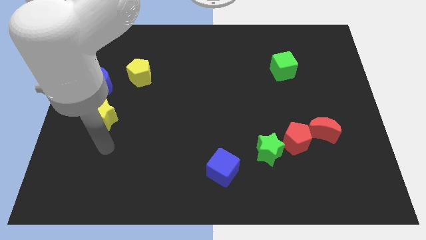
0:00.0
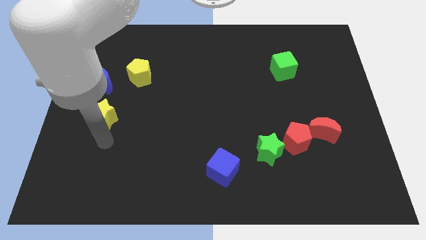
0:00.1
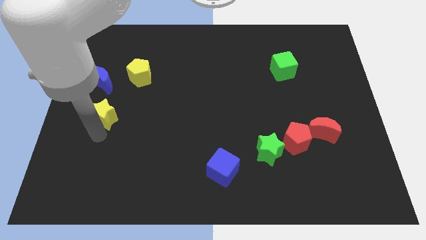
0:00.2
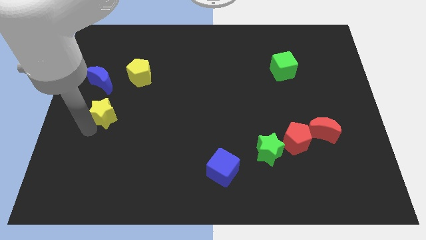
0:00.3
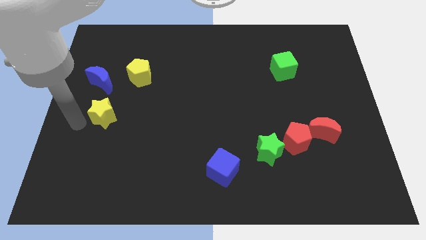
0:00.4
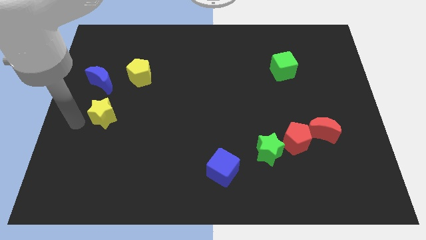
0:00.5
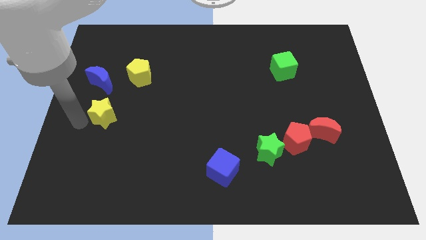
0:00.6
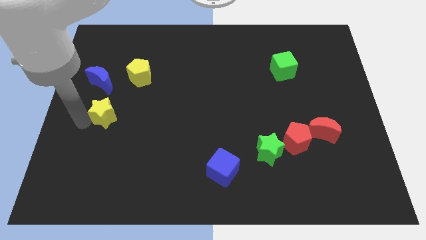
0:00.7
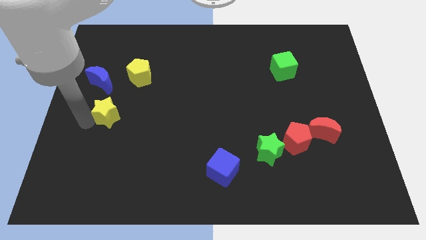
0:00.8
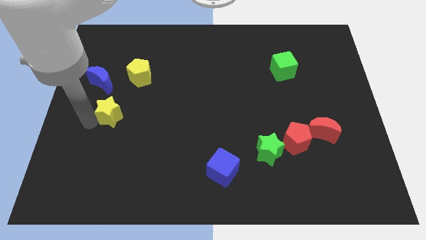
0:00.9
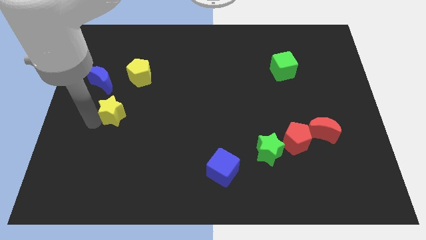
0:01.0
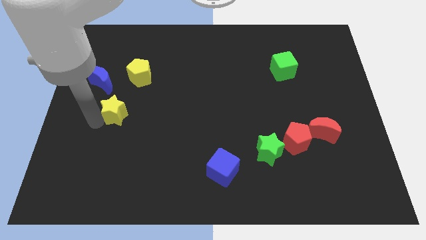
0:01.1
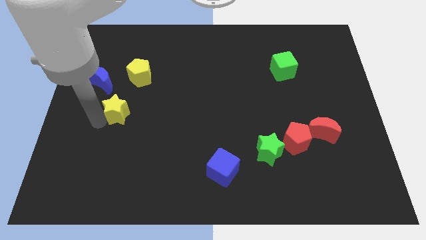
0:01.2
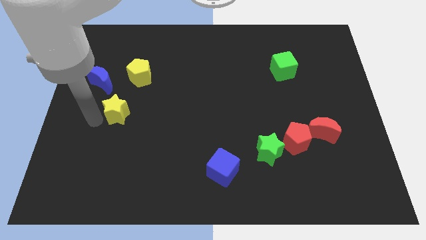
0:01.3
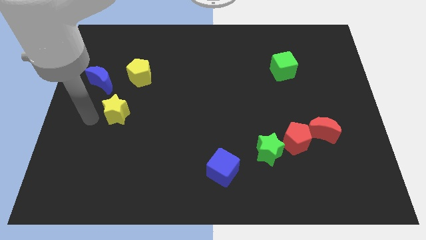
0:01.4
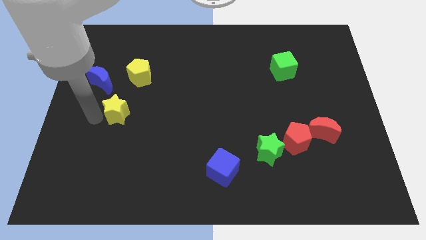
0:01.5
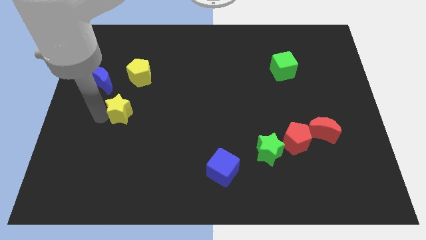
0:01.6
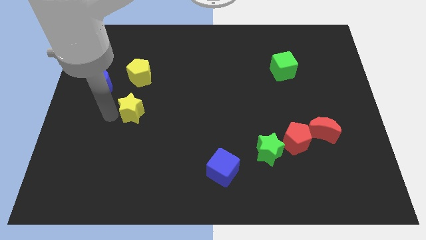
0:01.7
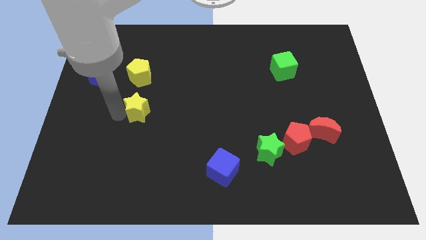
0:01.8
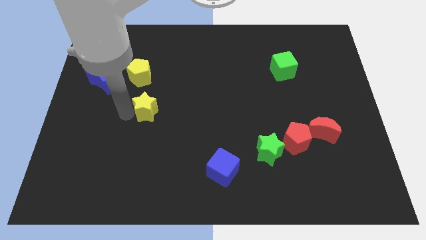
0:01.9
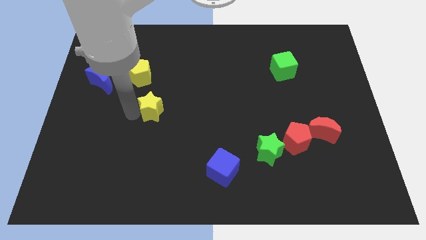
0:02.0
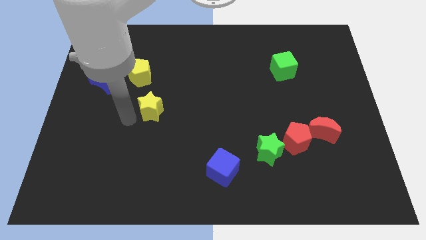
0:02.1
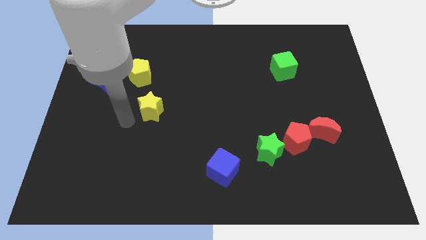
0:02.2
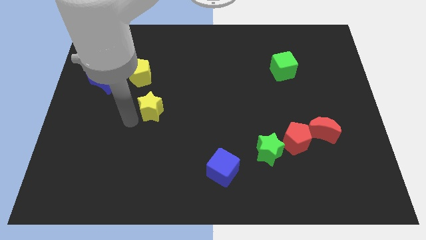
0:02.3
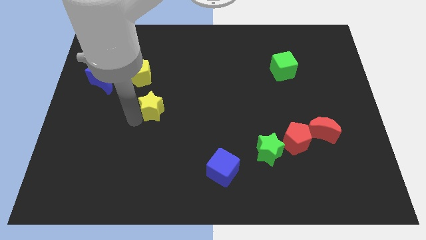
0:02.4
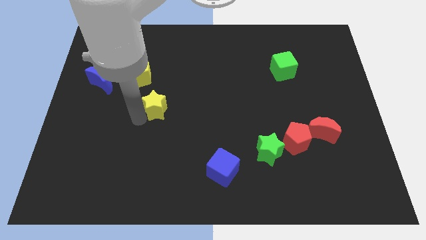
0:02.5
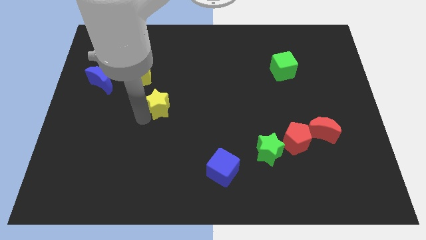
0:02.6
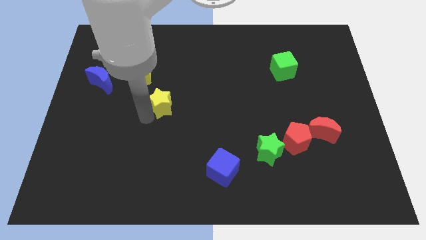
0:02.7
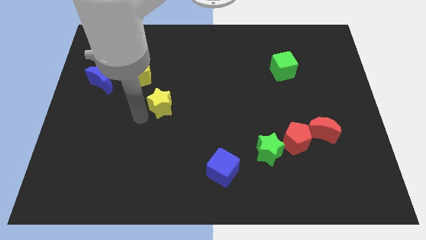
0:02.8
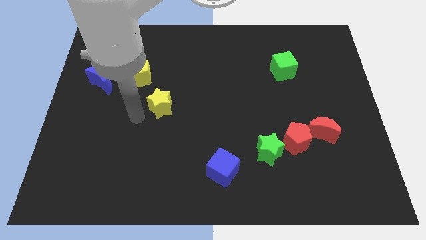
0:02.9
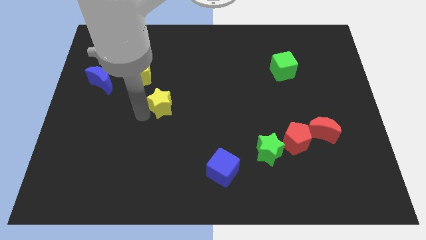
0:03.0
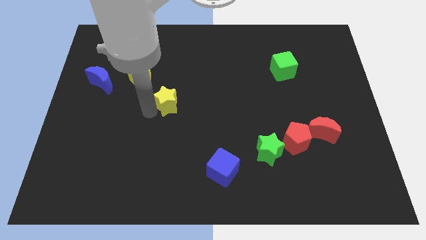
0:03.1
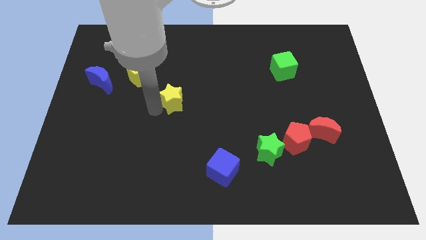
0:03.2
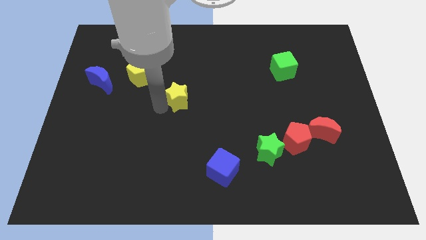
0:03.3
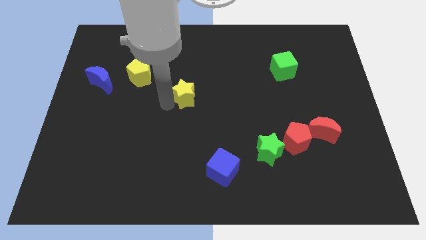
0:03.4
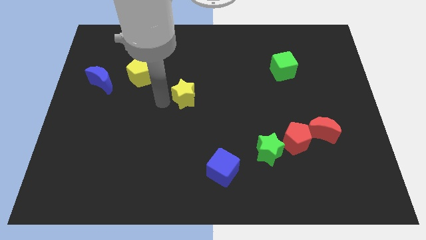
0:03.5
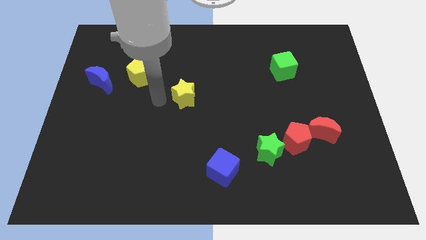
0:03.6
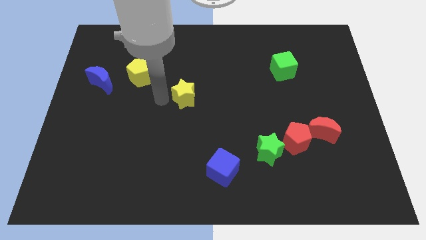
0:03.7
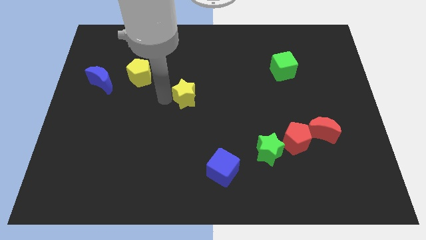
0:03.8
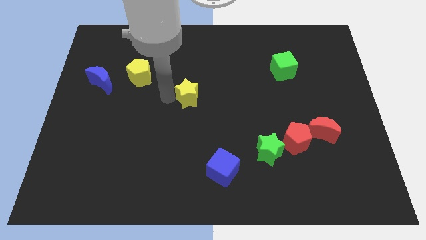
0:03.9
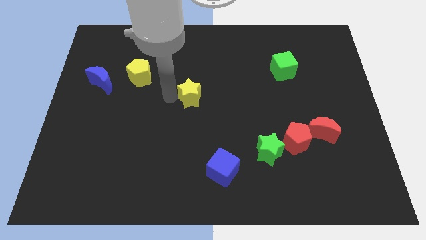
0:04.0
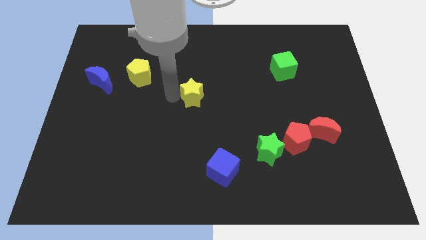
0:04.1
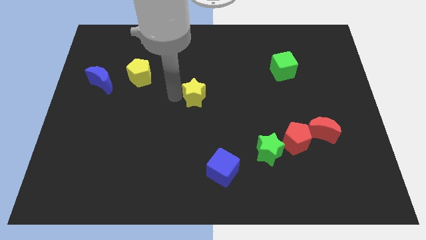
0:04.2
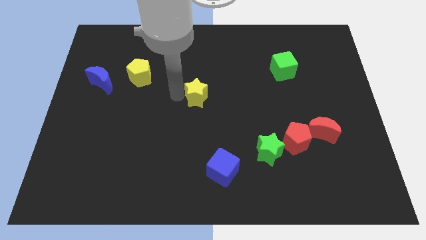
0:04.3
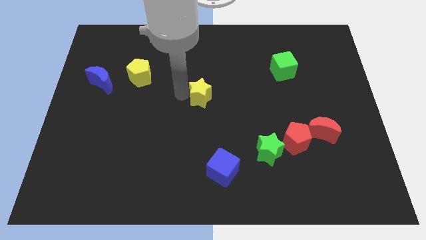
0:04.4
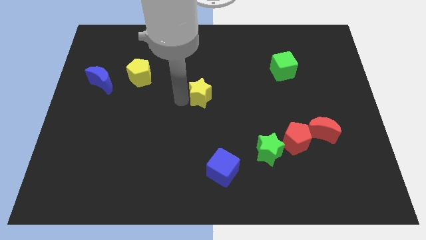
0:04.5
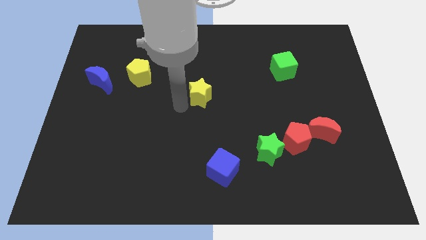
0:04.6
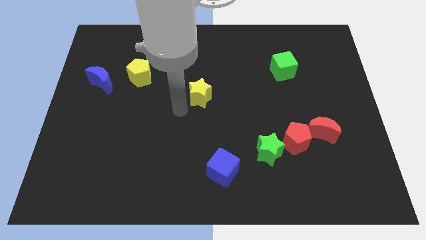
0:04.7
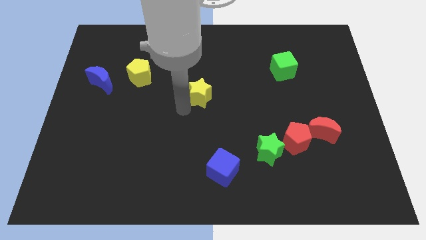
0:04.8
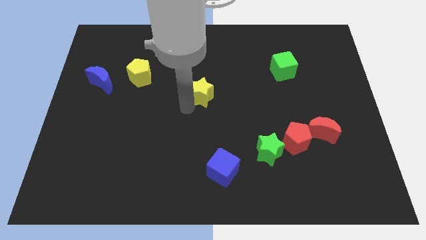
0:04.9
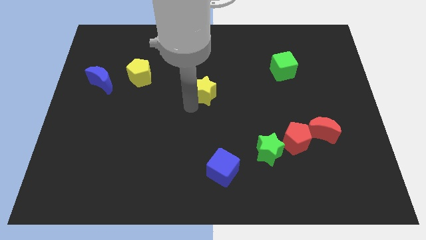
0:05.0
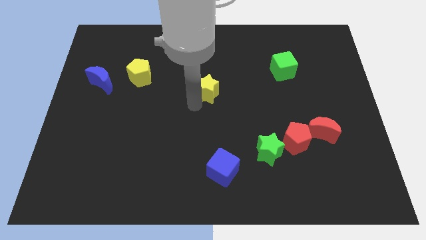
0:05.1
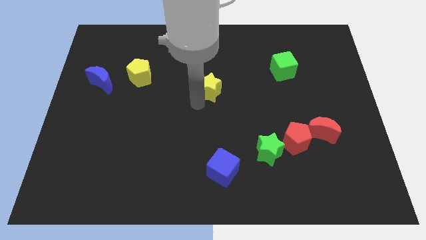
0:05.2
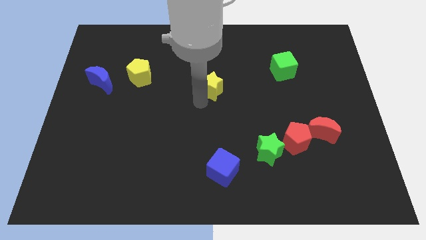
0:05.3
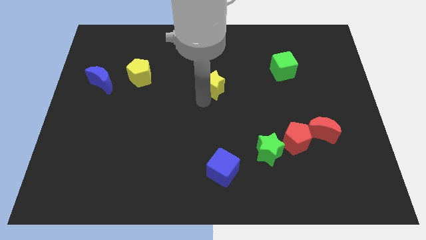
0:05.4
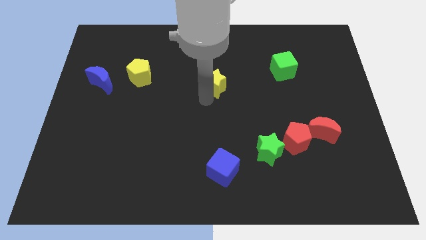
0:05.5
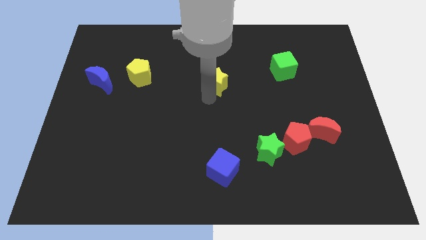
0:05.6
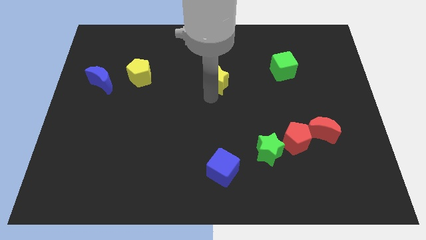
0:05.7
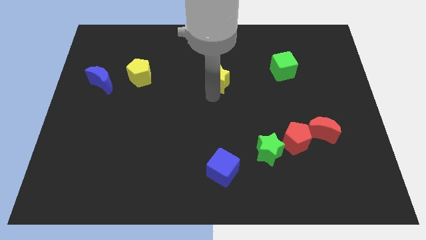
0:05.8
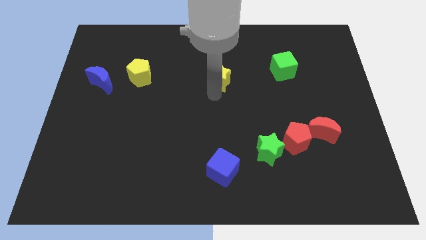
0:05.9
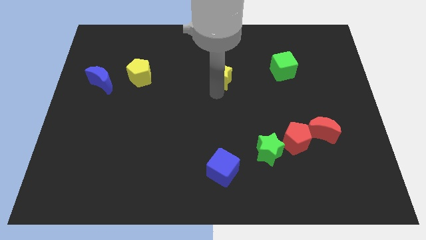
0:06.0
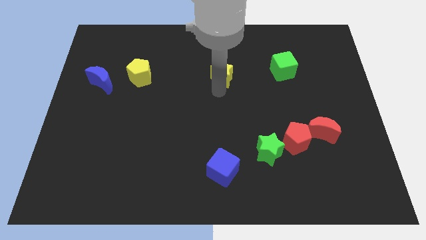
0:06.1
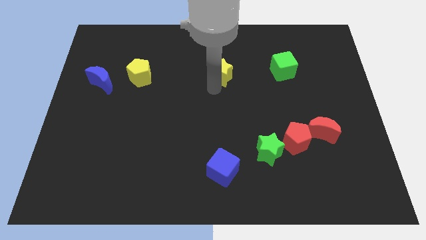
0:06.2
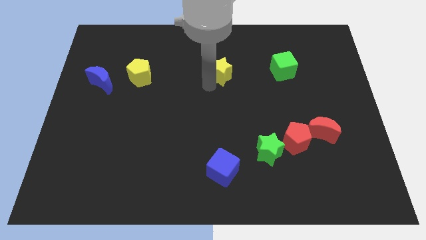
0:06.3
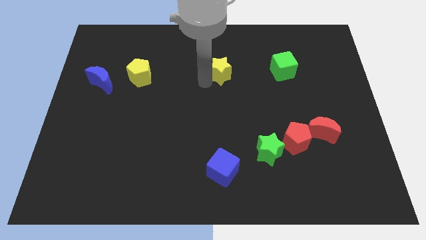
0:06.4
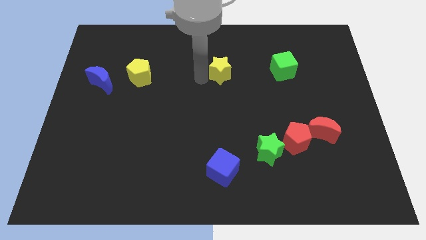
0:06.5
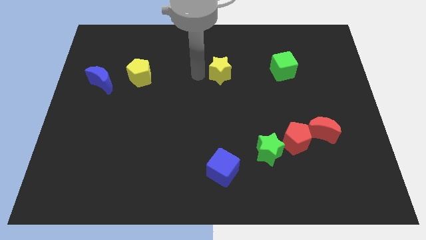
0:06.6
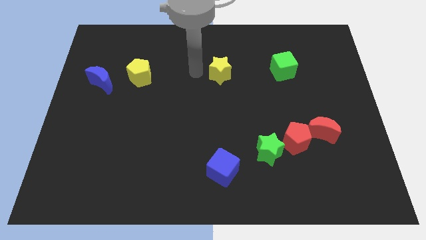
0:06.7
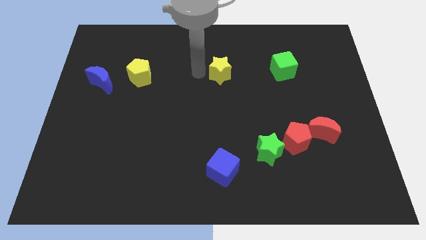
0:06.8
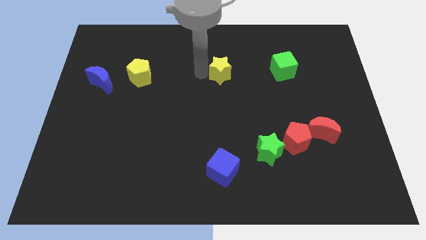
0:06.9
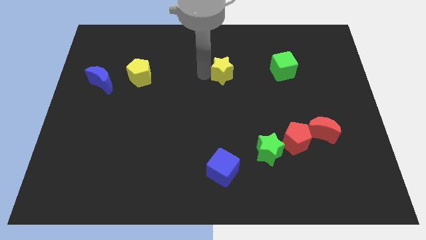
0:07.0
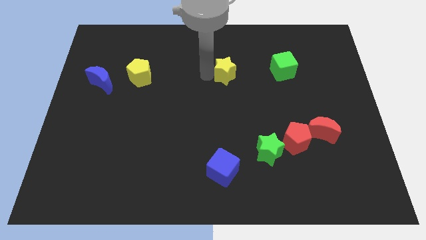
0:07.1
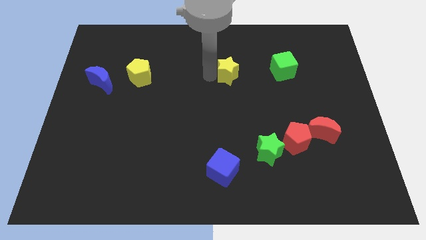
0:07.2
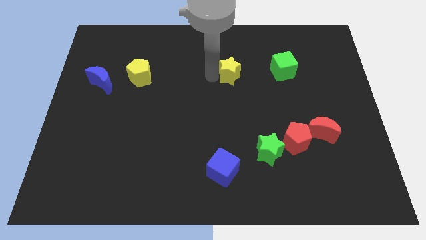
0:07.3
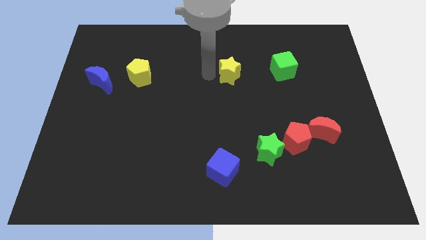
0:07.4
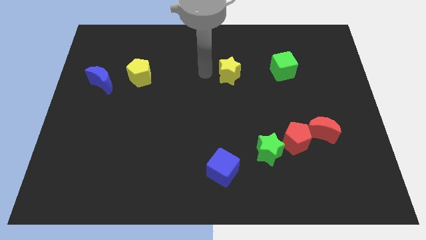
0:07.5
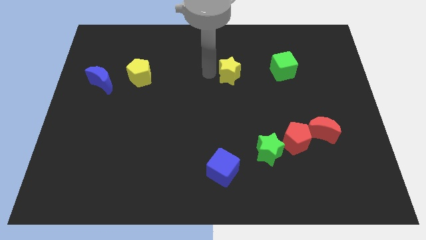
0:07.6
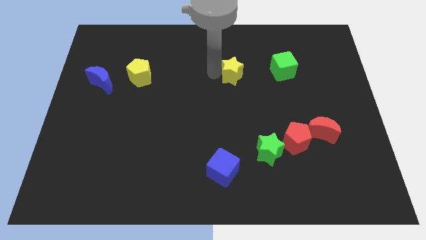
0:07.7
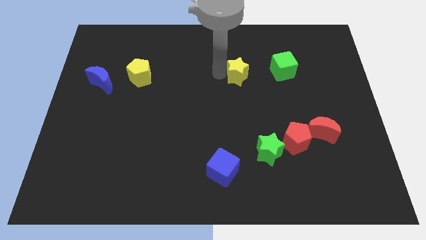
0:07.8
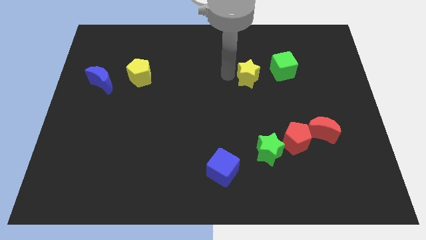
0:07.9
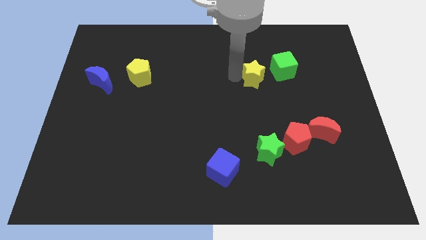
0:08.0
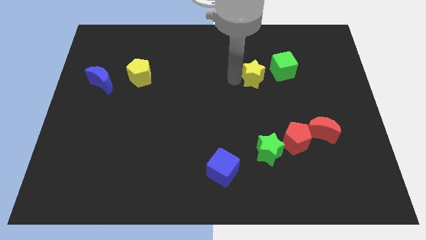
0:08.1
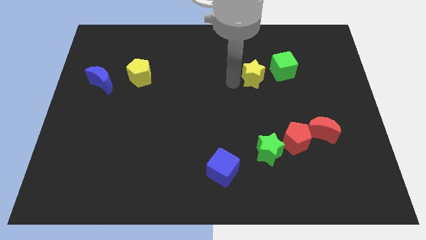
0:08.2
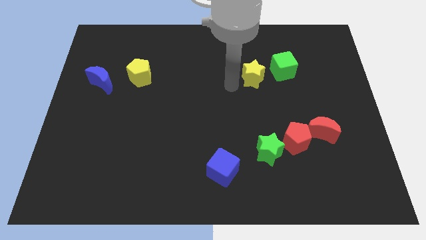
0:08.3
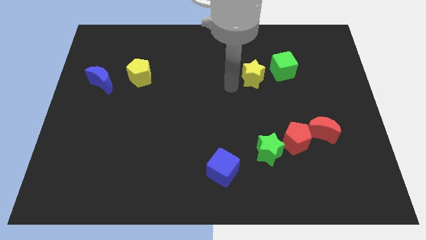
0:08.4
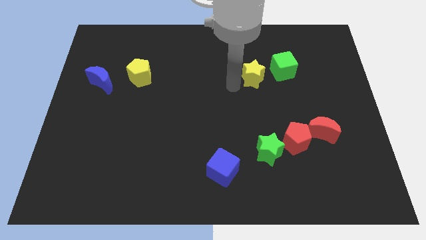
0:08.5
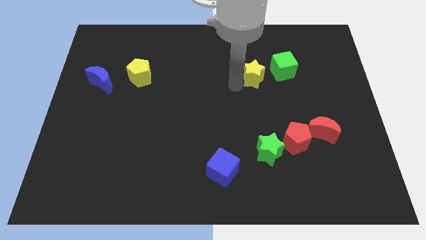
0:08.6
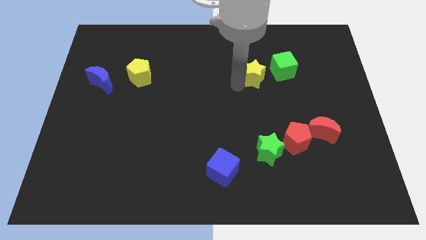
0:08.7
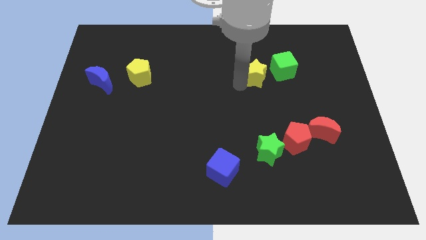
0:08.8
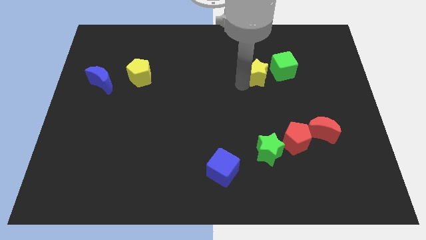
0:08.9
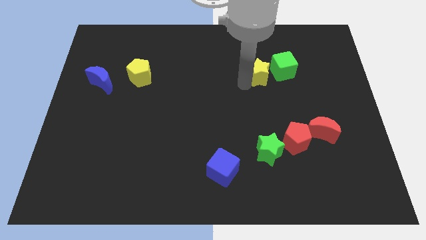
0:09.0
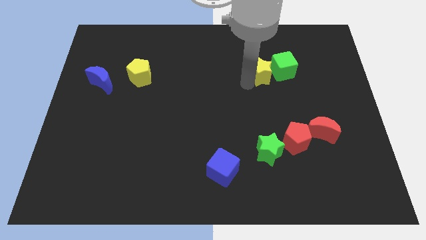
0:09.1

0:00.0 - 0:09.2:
put the yellow star next to the green cube
